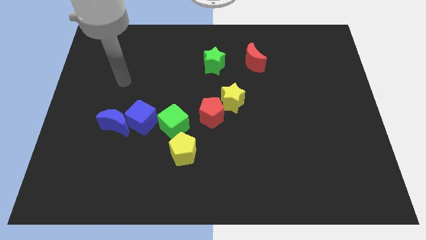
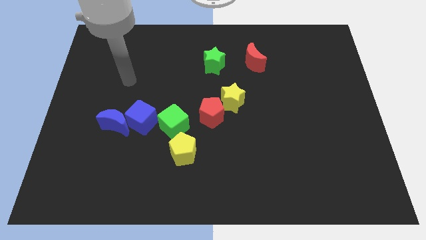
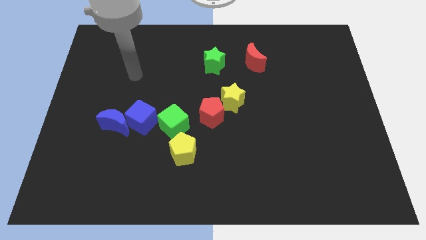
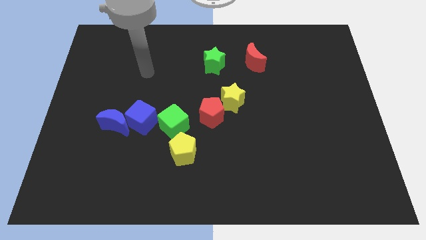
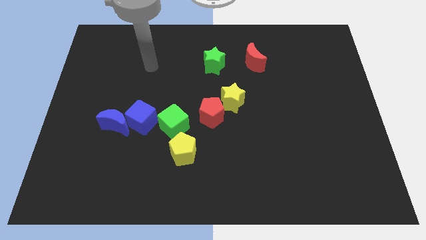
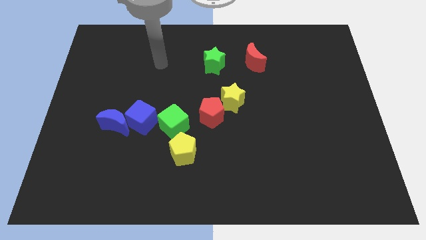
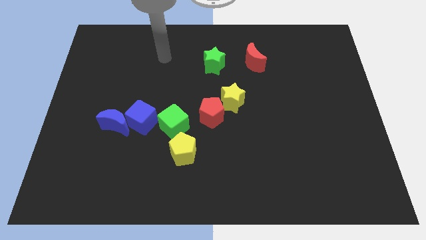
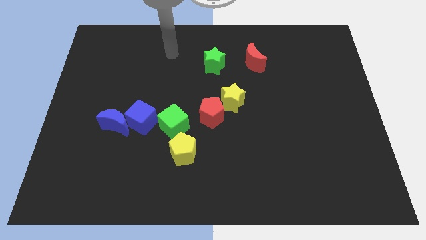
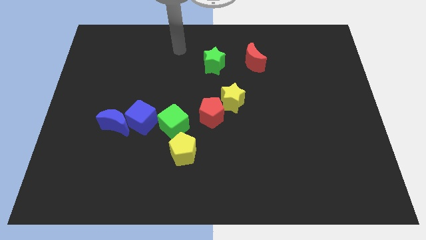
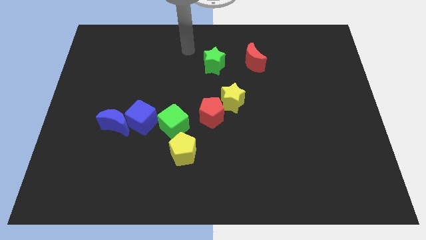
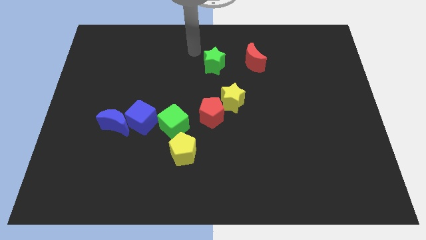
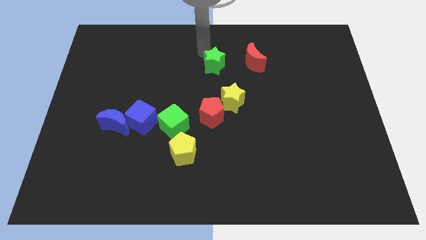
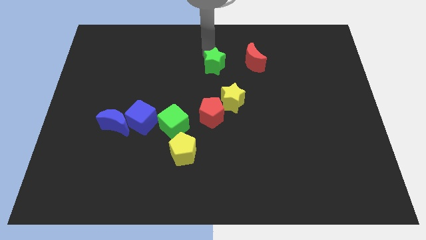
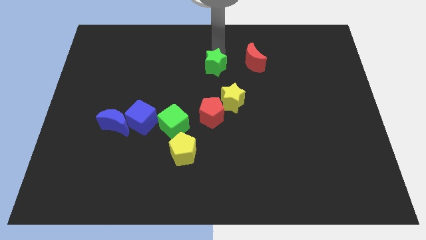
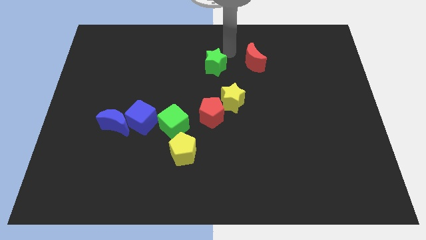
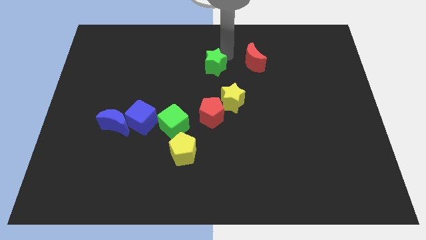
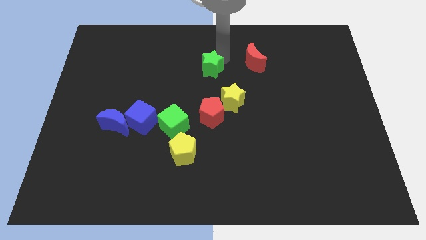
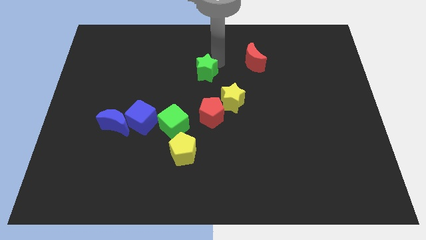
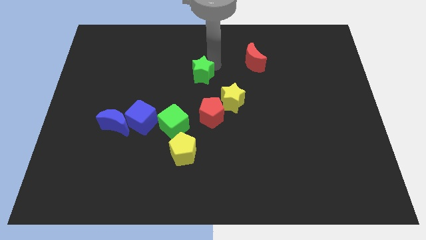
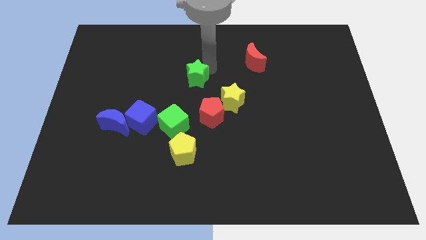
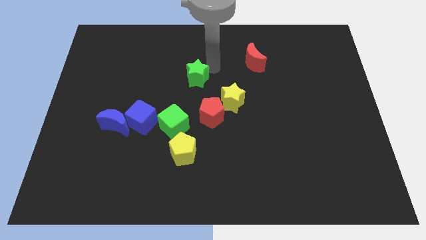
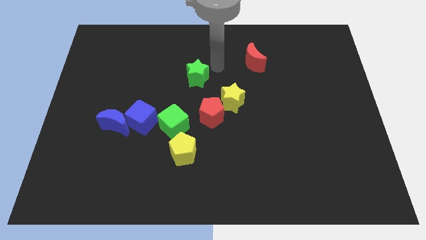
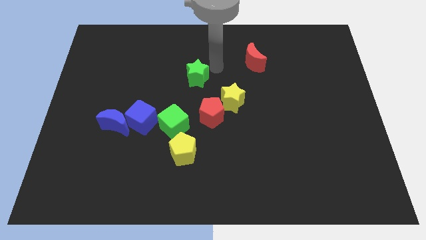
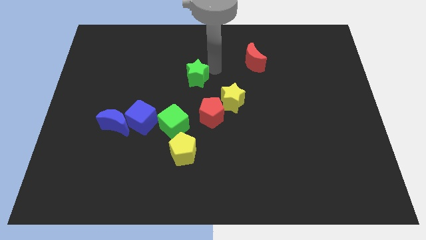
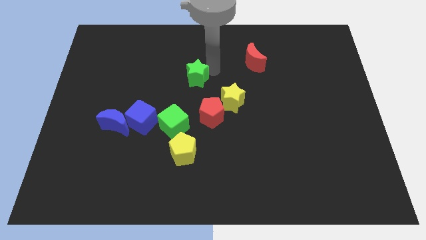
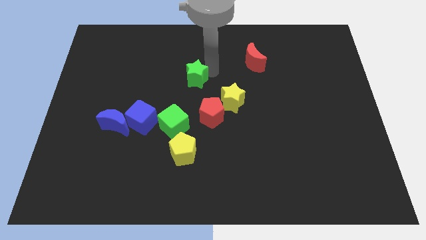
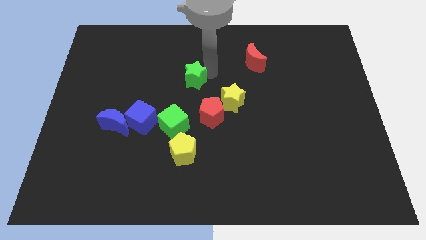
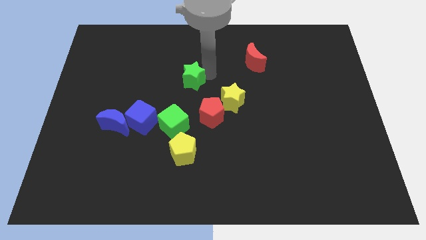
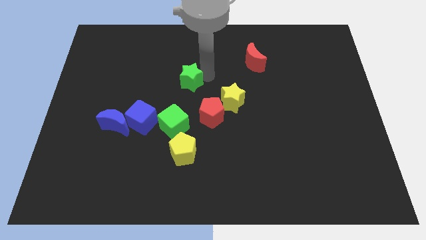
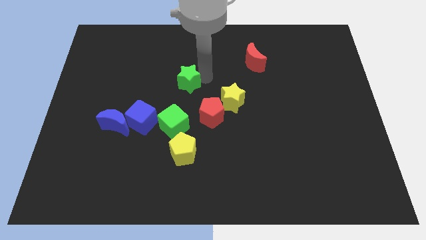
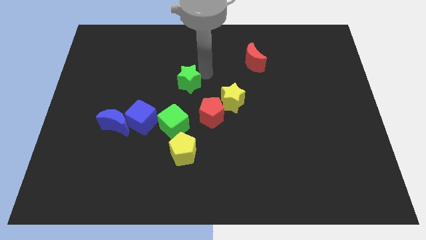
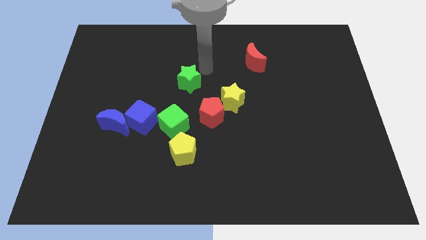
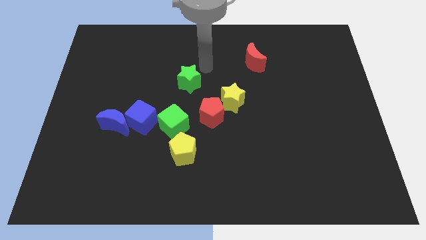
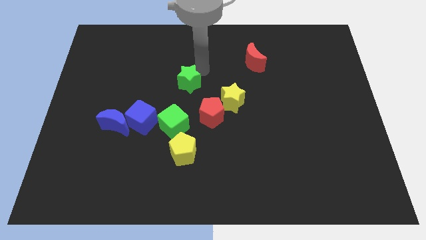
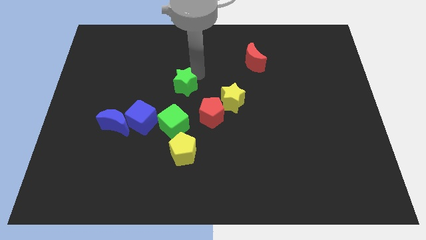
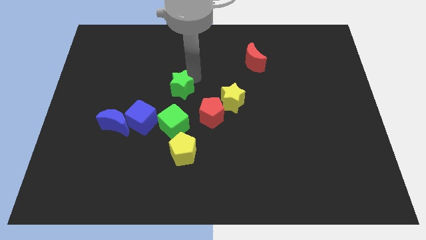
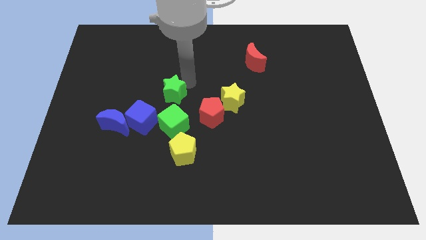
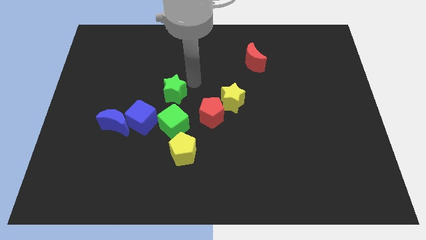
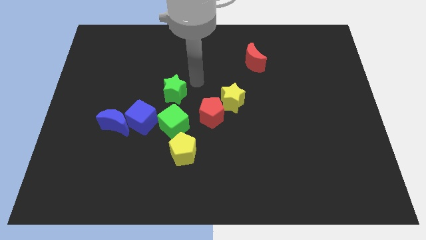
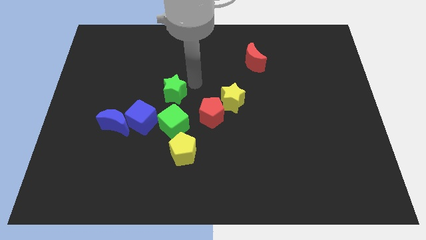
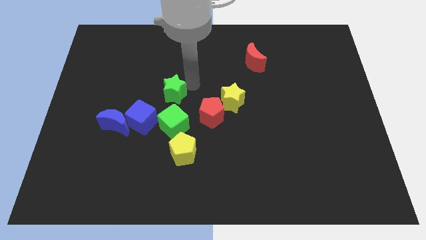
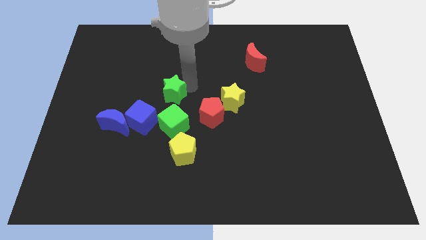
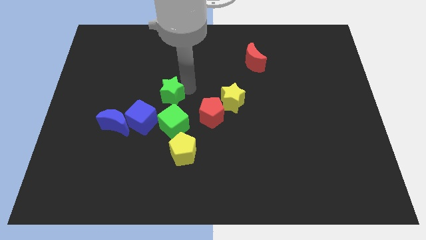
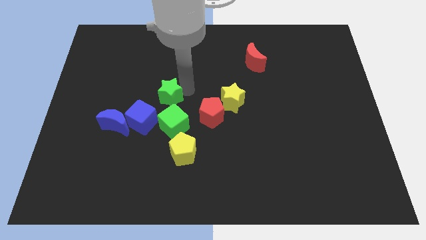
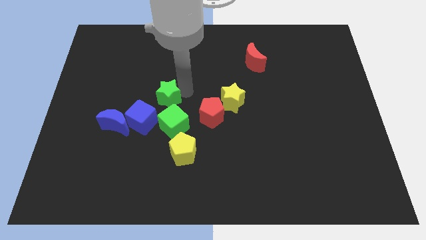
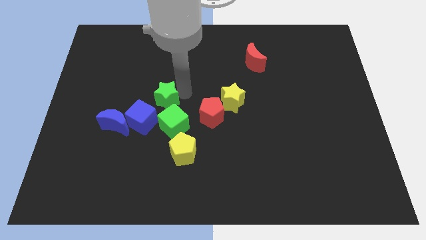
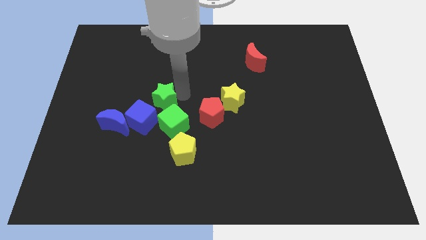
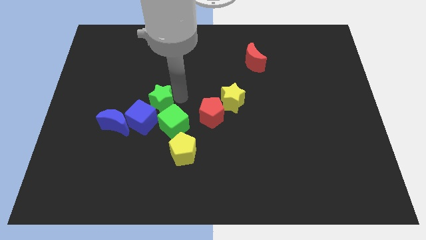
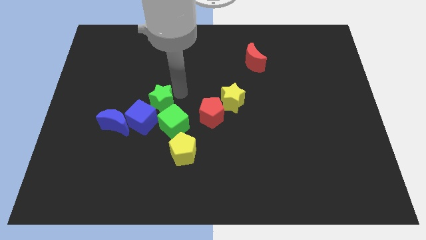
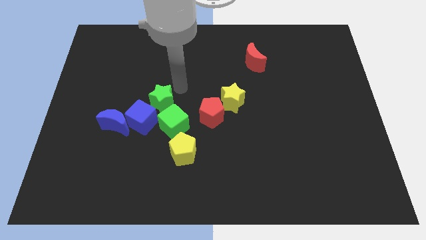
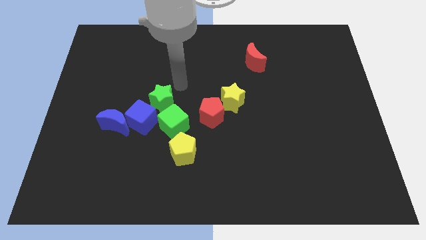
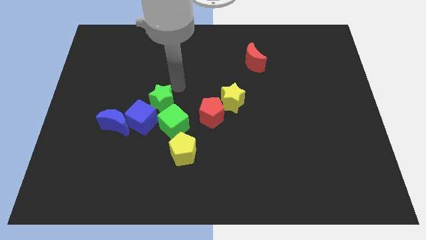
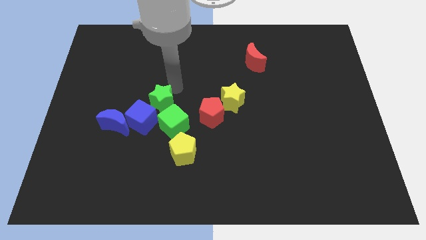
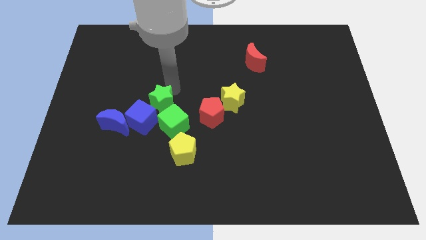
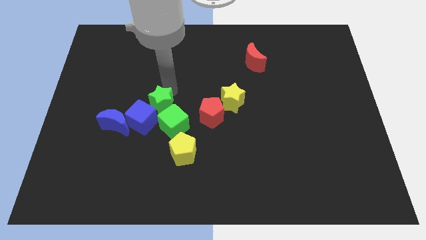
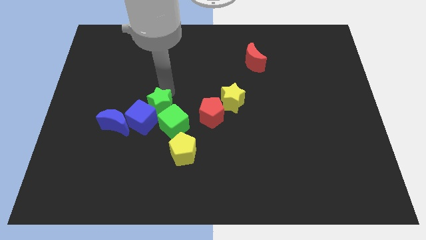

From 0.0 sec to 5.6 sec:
push the green star next to the blue cube

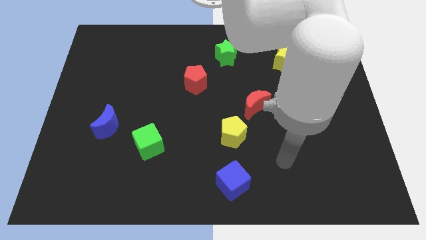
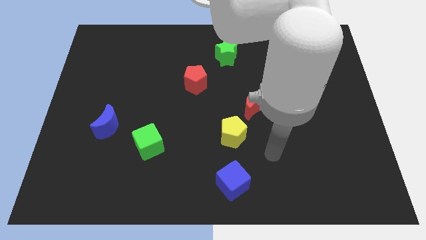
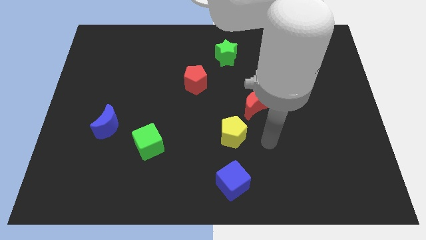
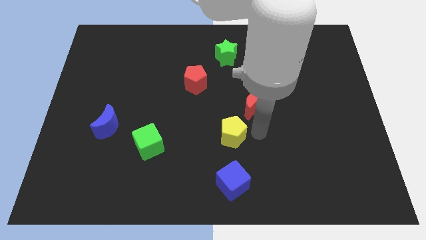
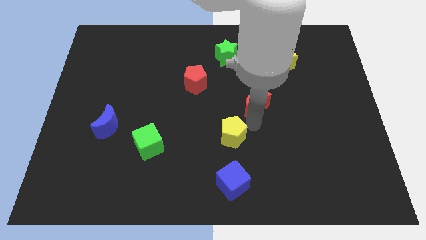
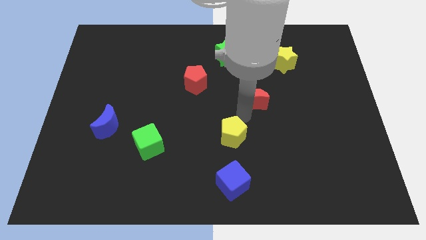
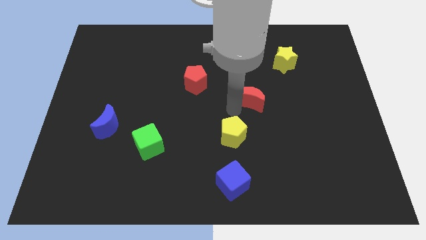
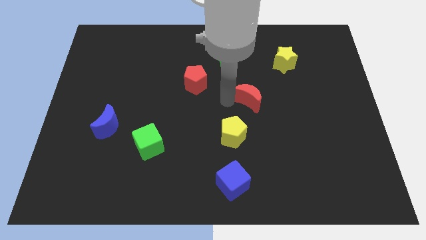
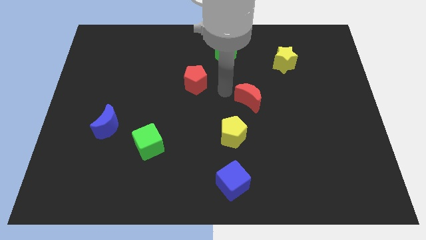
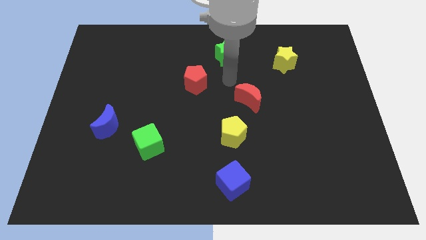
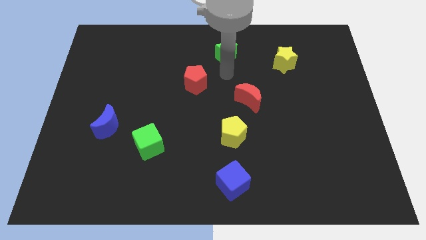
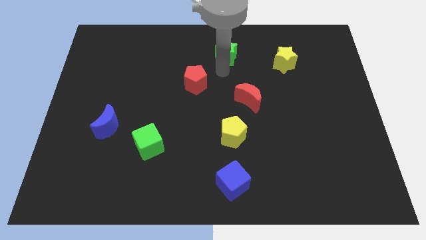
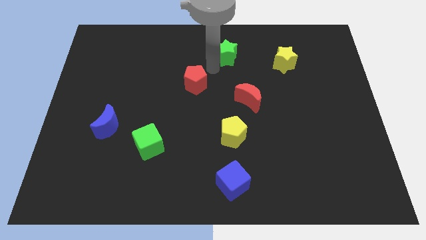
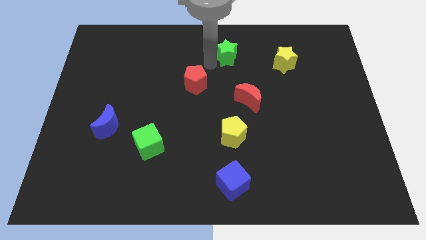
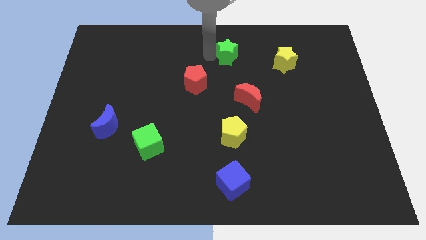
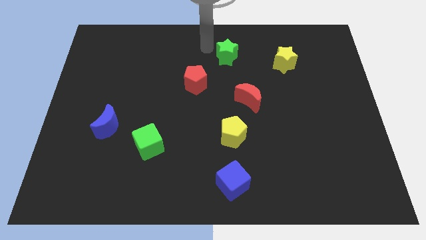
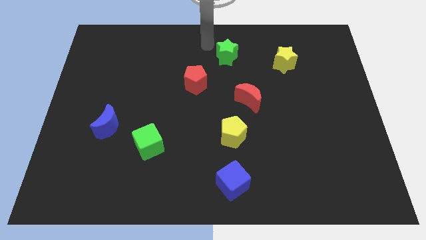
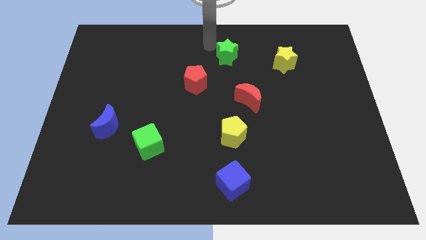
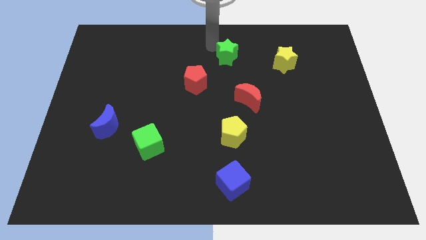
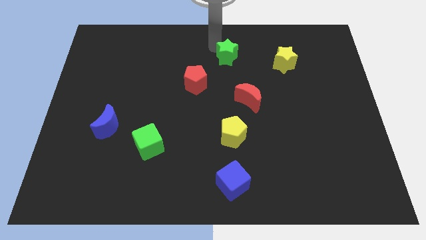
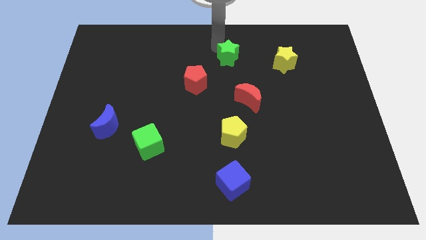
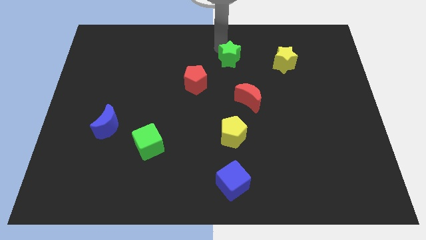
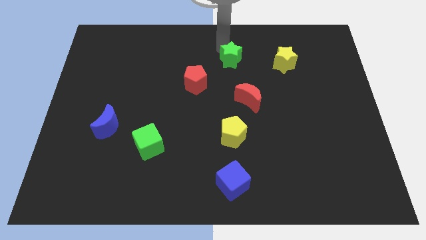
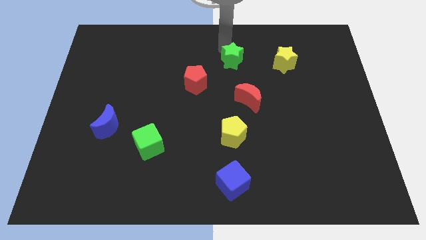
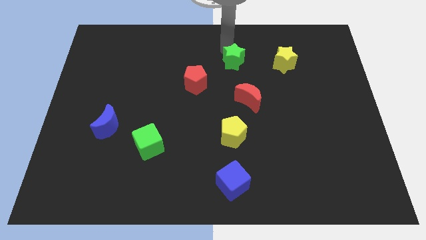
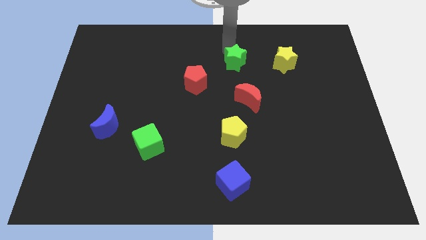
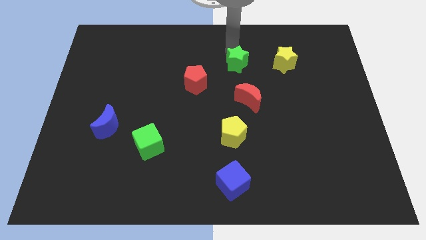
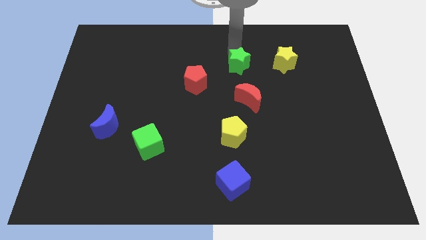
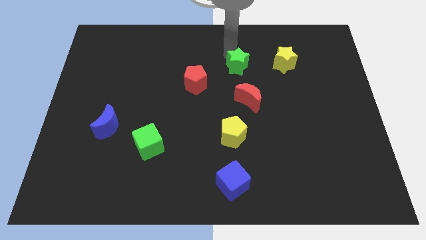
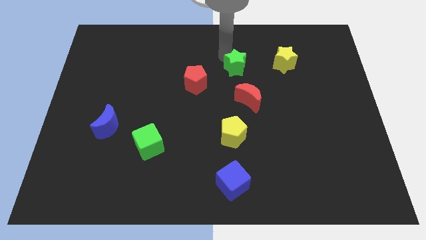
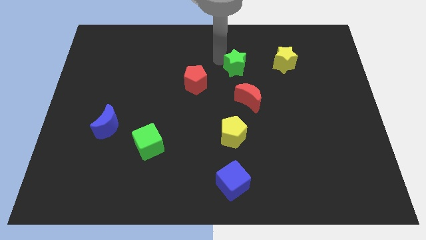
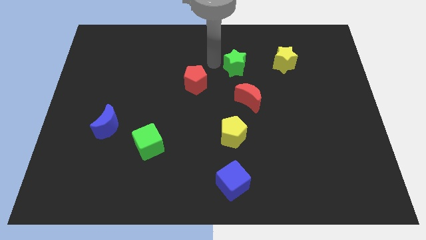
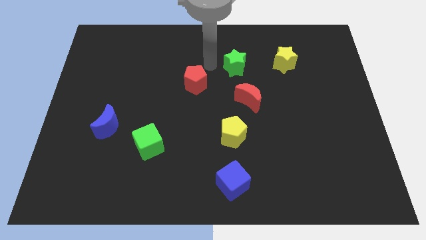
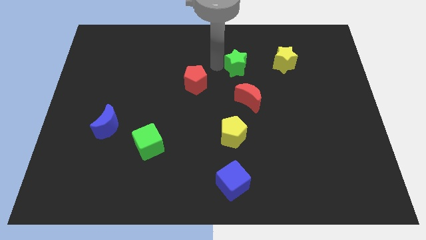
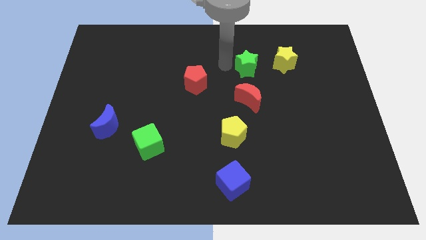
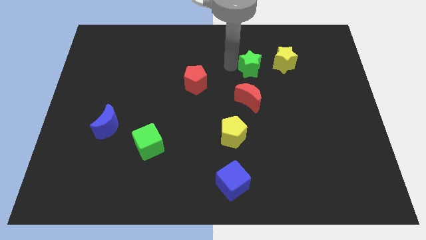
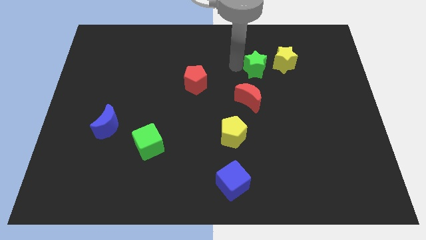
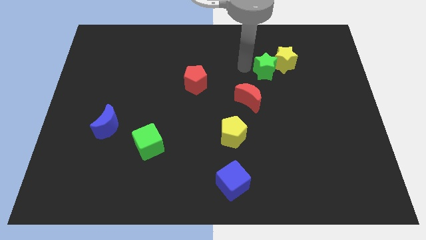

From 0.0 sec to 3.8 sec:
push the green star to the yellow star
